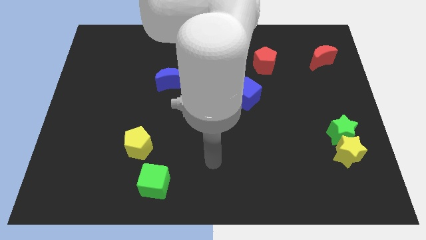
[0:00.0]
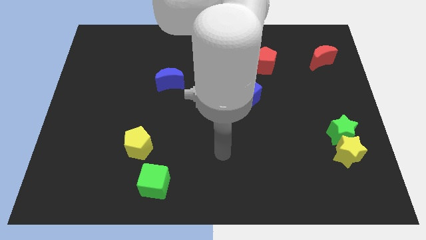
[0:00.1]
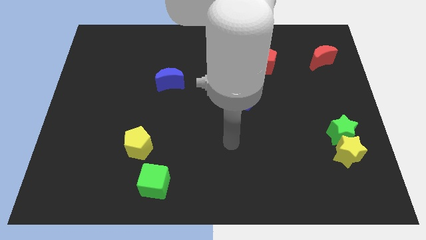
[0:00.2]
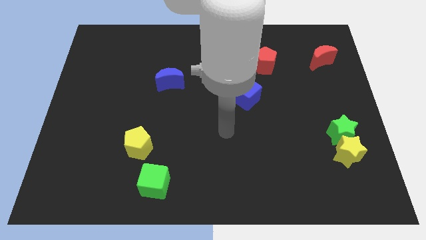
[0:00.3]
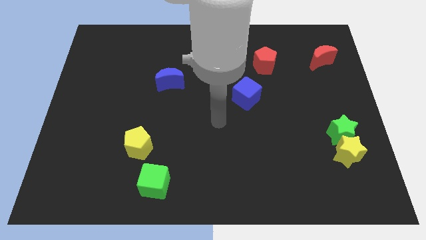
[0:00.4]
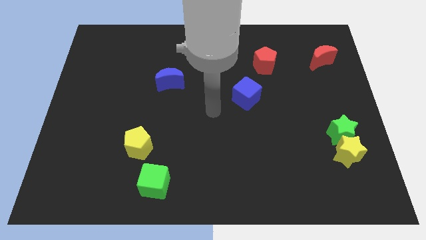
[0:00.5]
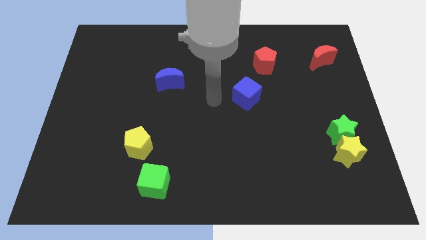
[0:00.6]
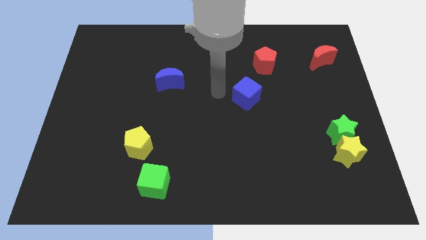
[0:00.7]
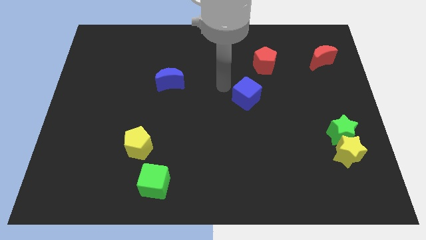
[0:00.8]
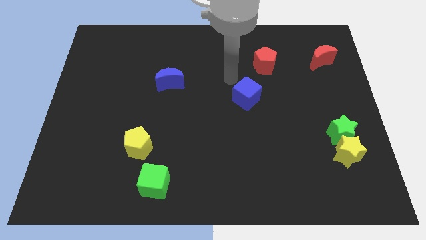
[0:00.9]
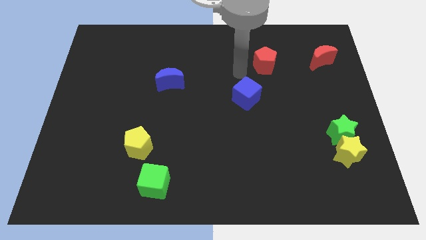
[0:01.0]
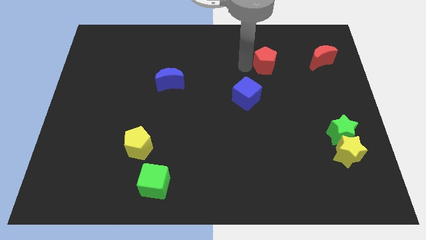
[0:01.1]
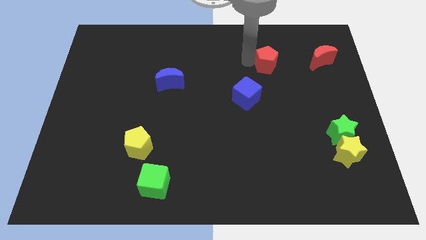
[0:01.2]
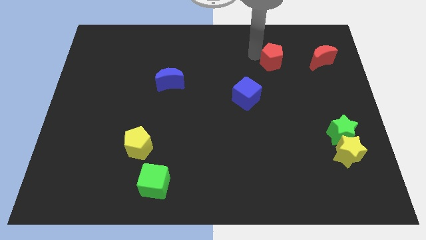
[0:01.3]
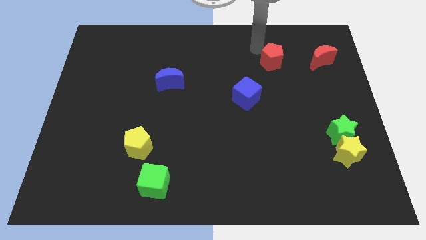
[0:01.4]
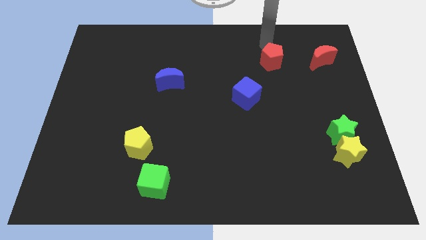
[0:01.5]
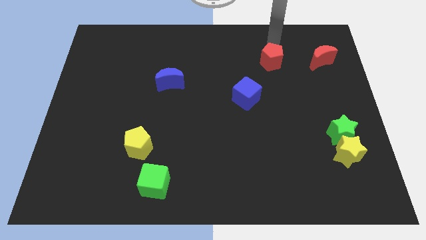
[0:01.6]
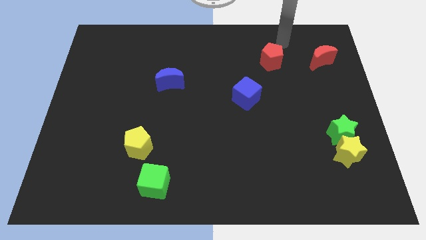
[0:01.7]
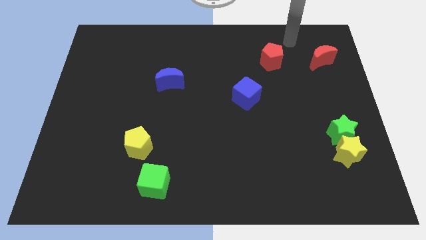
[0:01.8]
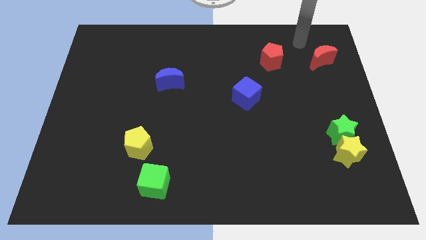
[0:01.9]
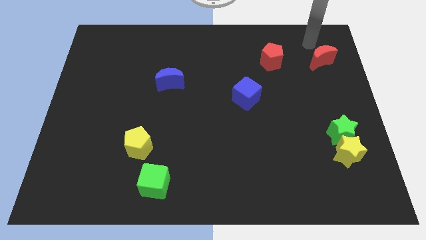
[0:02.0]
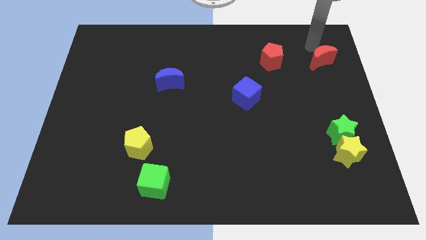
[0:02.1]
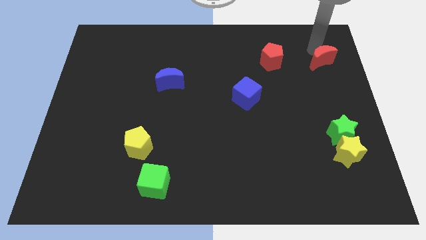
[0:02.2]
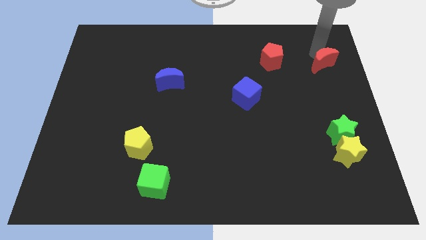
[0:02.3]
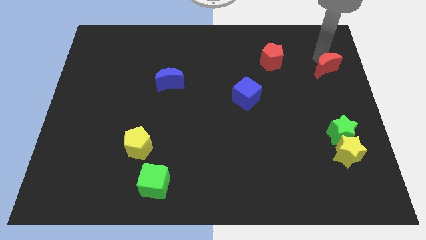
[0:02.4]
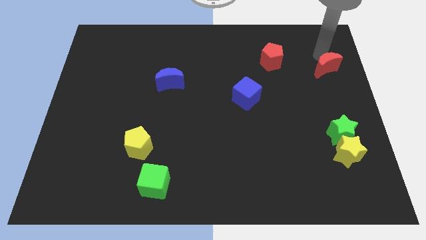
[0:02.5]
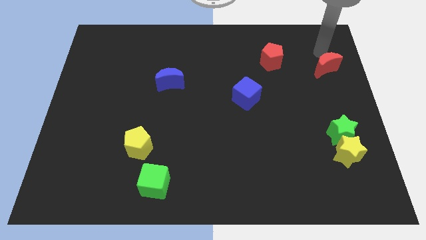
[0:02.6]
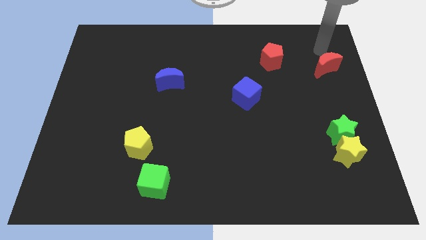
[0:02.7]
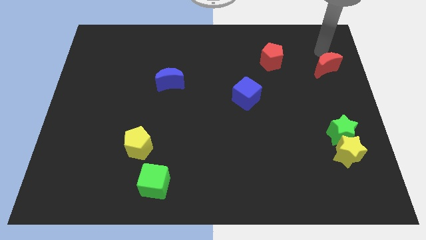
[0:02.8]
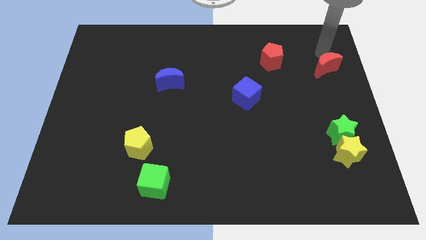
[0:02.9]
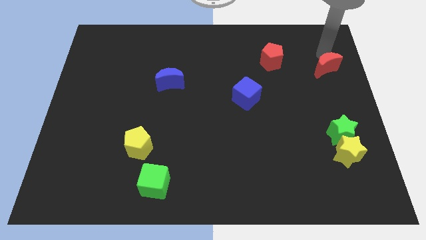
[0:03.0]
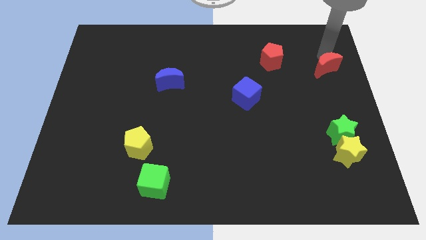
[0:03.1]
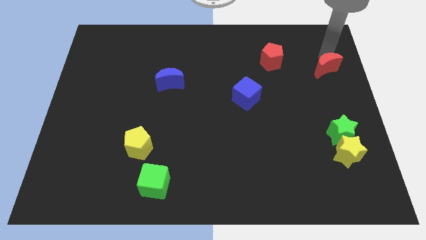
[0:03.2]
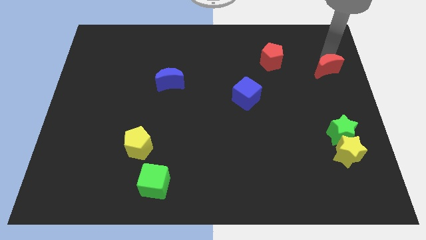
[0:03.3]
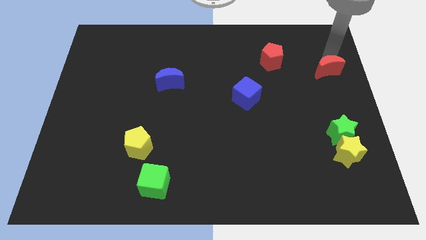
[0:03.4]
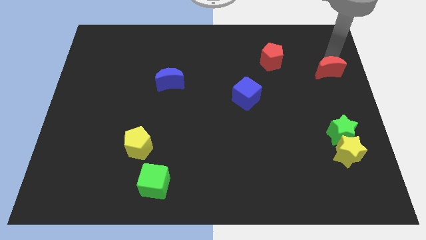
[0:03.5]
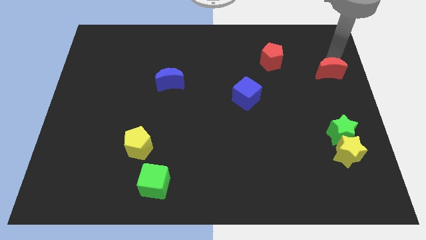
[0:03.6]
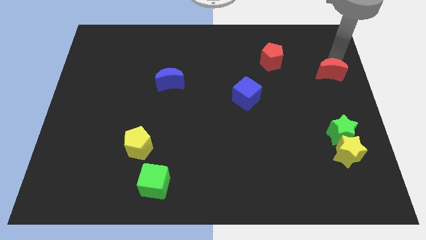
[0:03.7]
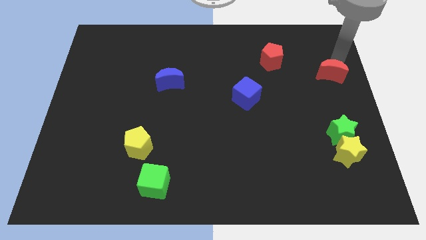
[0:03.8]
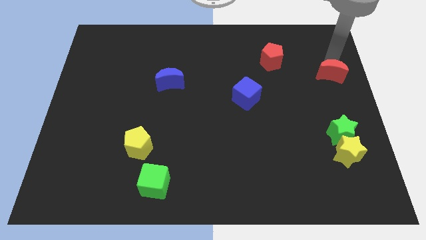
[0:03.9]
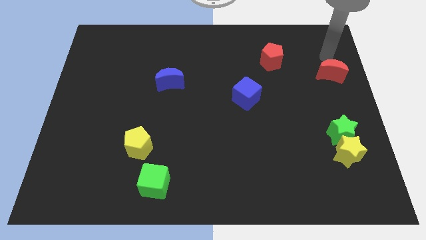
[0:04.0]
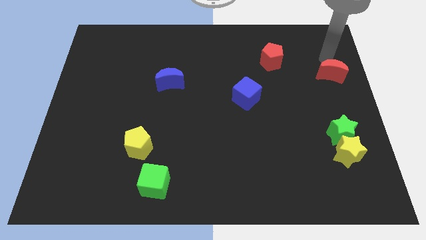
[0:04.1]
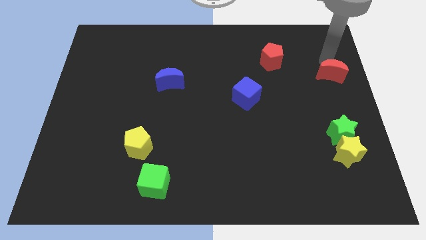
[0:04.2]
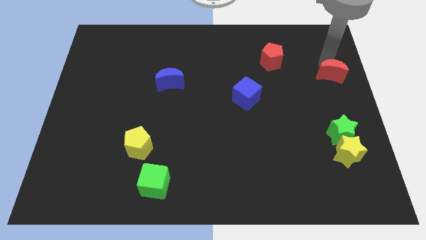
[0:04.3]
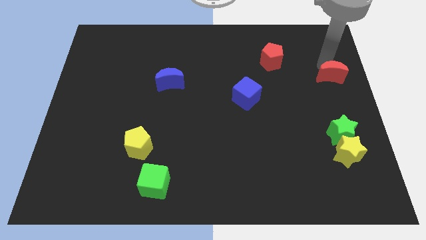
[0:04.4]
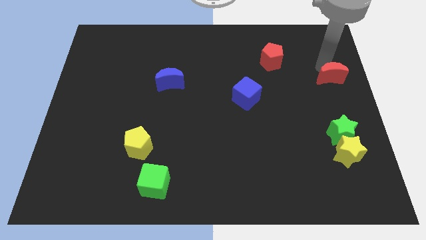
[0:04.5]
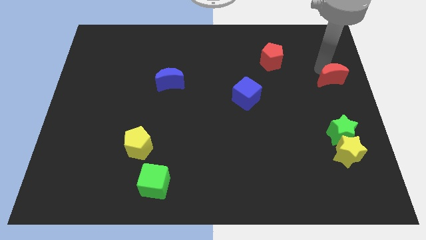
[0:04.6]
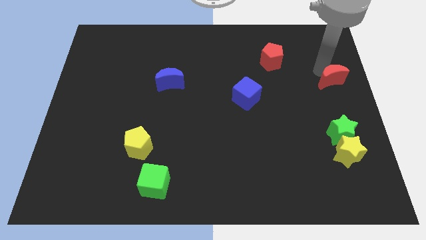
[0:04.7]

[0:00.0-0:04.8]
slide the red moon a little bit down

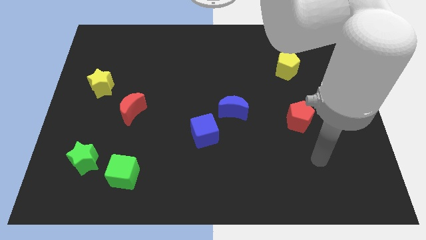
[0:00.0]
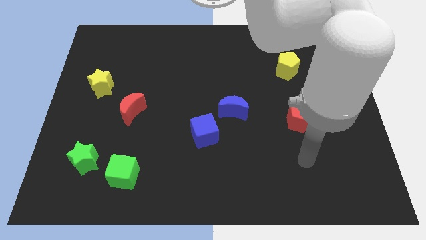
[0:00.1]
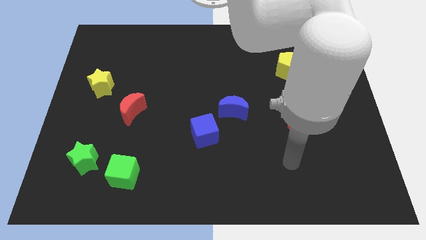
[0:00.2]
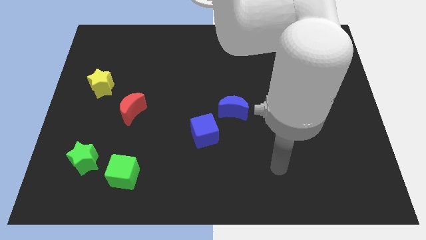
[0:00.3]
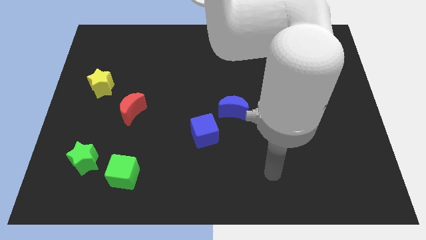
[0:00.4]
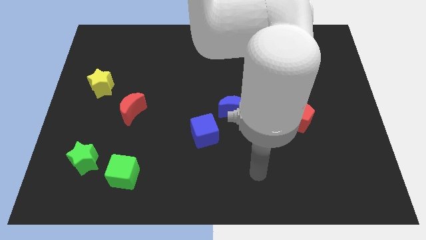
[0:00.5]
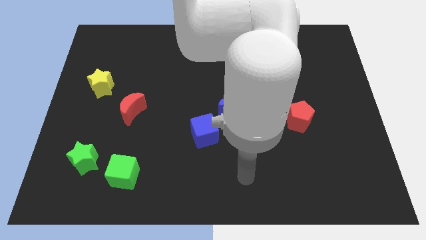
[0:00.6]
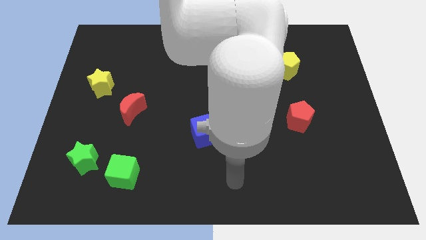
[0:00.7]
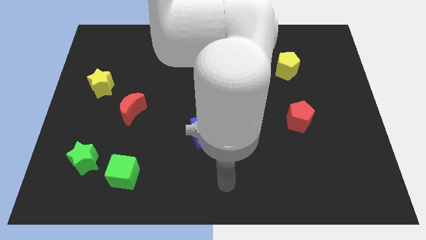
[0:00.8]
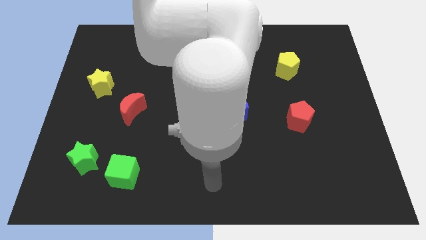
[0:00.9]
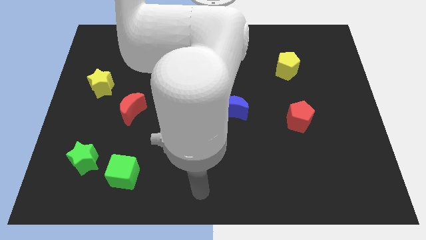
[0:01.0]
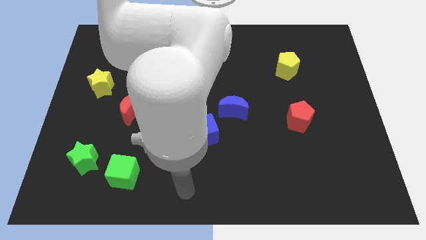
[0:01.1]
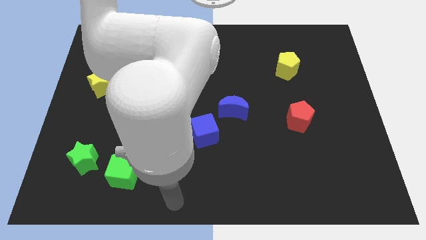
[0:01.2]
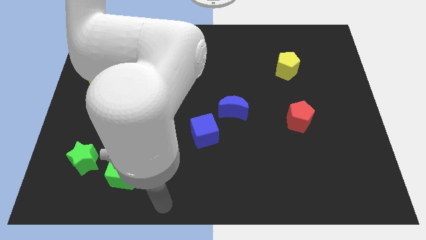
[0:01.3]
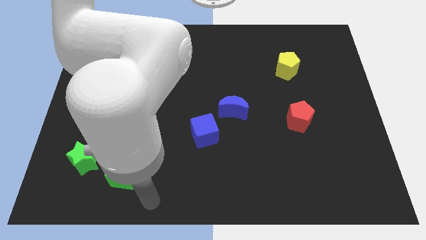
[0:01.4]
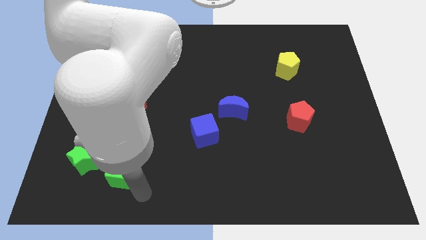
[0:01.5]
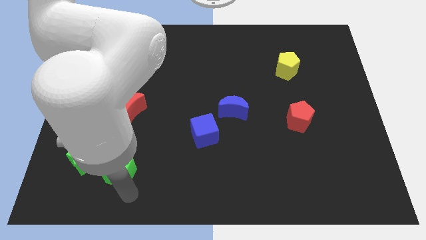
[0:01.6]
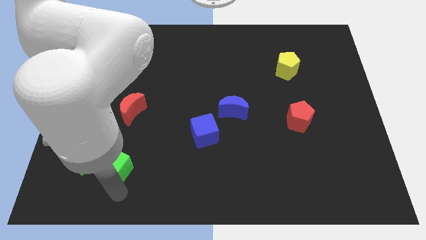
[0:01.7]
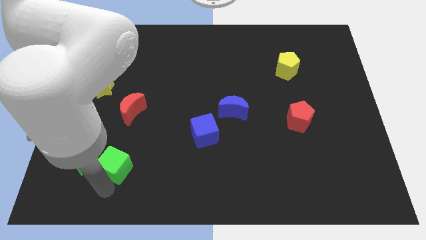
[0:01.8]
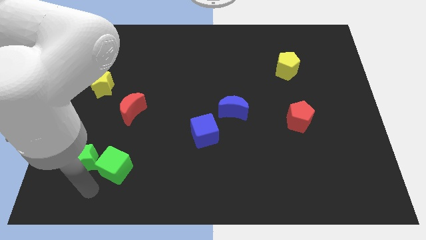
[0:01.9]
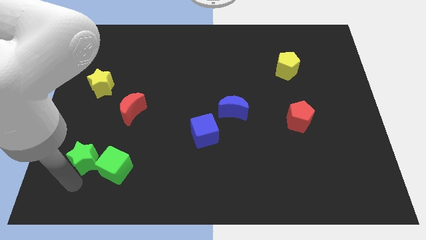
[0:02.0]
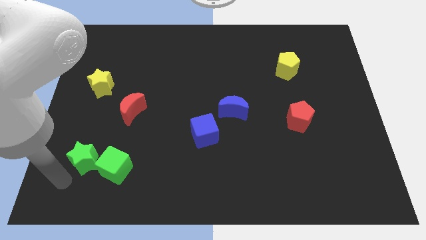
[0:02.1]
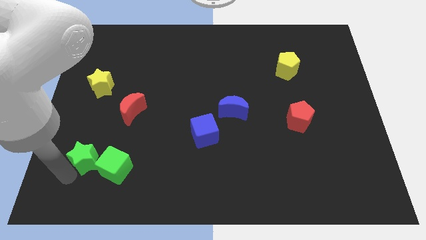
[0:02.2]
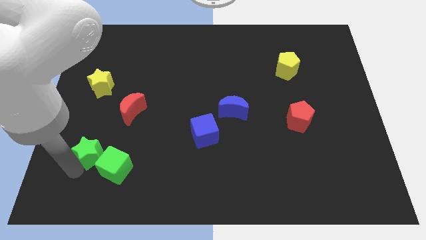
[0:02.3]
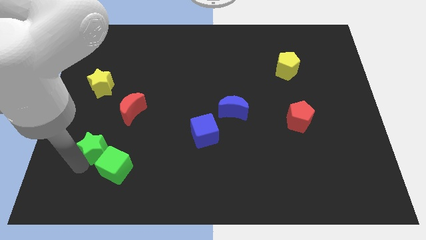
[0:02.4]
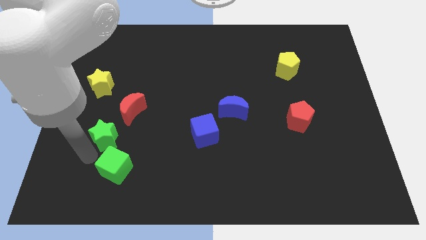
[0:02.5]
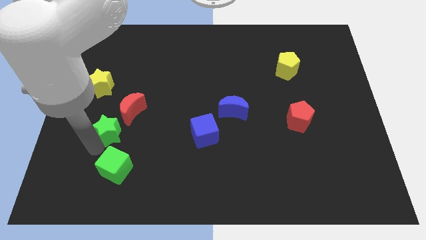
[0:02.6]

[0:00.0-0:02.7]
slightly move the green star up and to the right diagonally

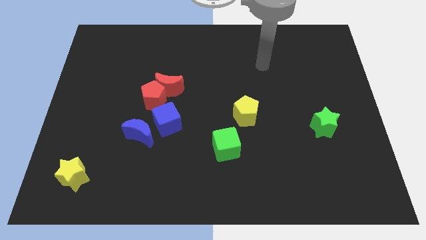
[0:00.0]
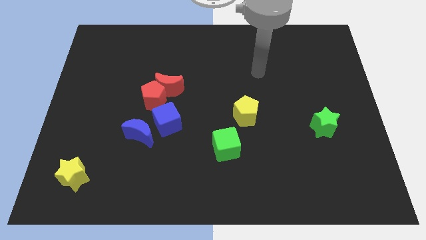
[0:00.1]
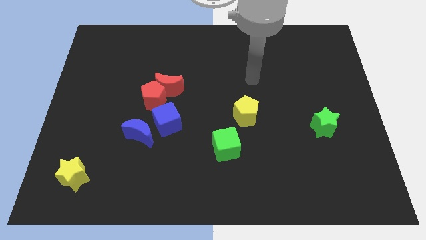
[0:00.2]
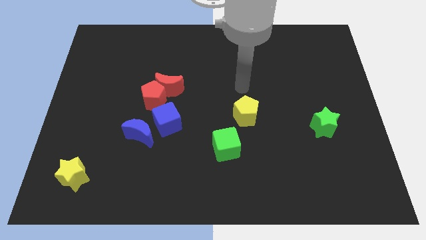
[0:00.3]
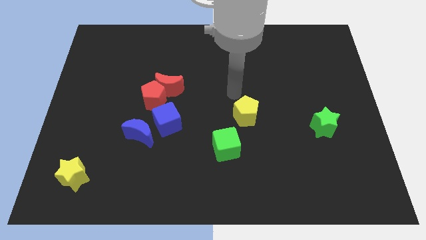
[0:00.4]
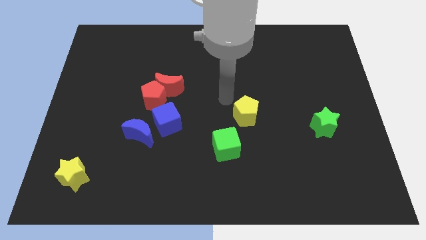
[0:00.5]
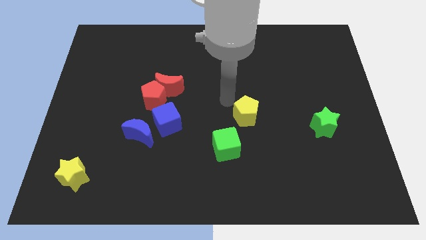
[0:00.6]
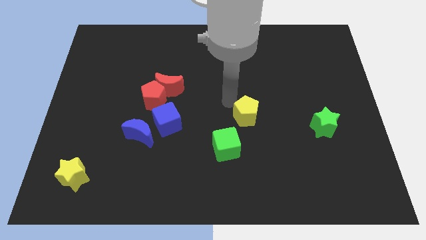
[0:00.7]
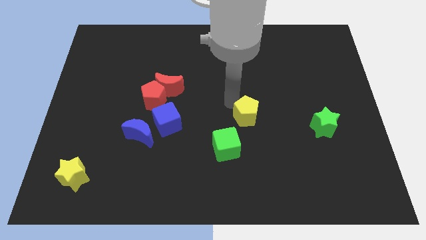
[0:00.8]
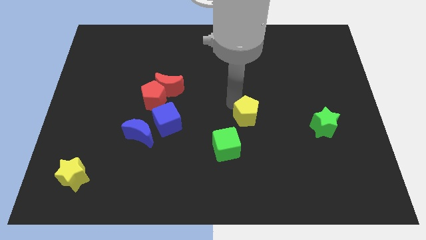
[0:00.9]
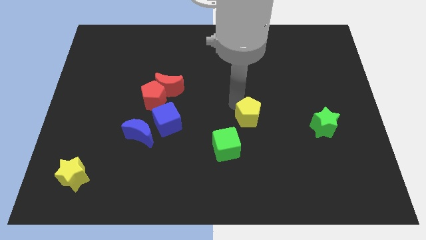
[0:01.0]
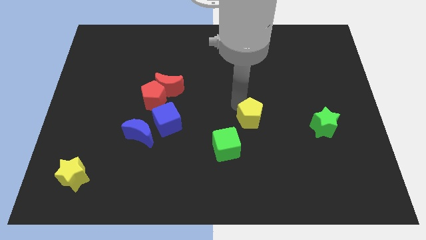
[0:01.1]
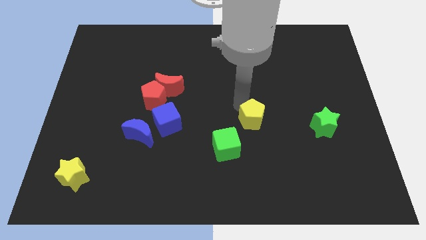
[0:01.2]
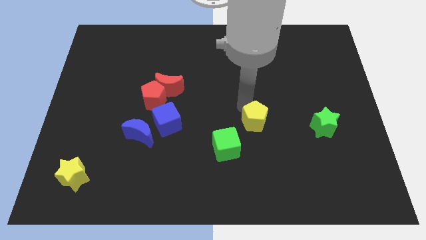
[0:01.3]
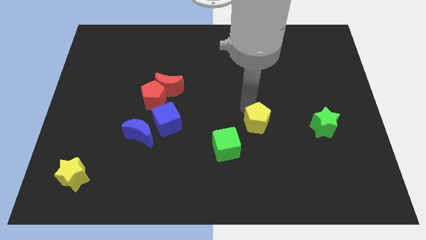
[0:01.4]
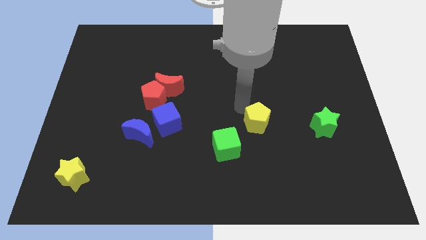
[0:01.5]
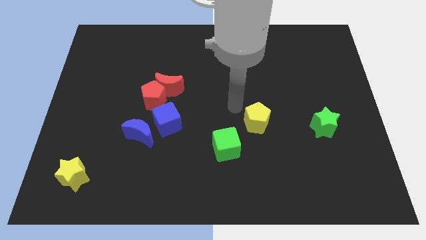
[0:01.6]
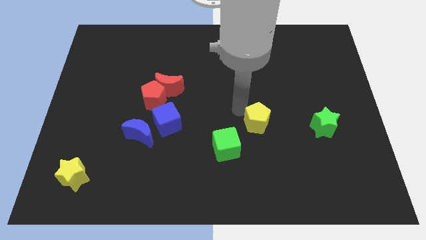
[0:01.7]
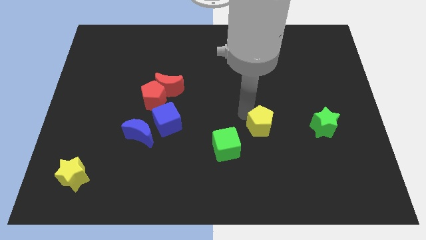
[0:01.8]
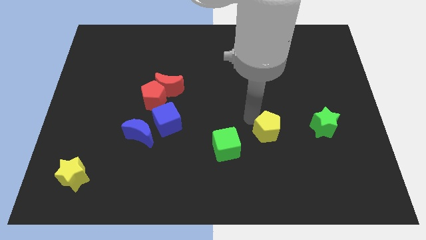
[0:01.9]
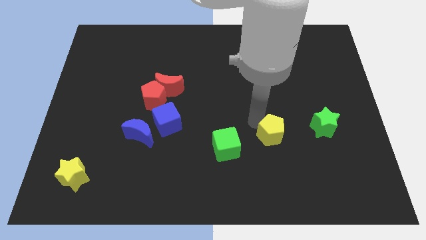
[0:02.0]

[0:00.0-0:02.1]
move the yellow pentagon diagonally down and right a little bit
